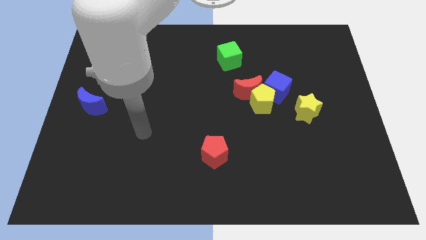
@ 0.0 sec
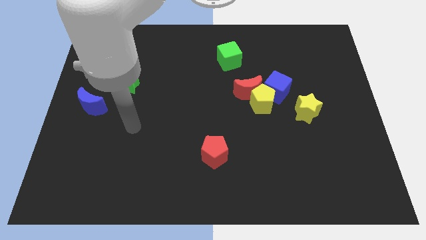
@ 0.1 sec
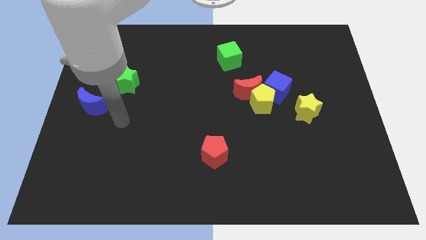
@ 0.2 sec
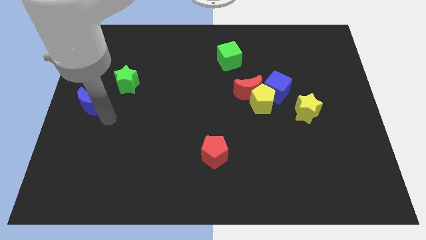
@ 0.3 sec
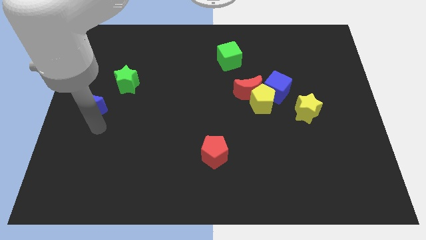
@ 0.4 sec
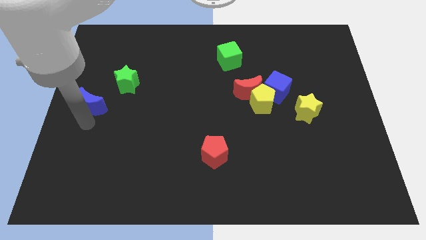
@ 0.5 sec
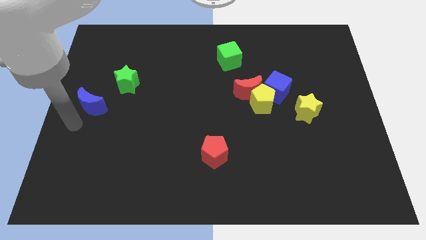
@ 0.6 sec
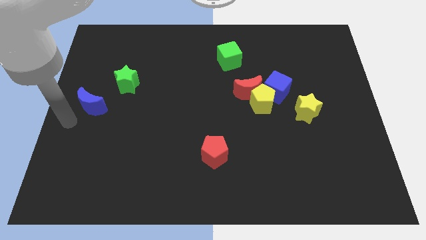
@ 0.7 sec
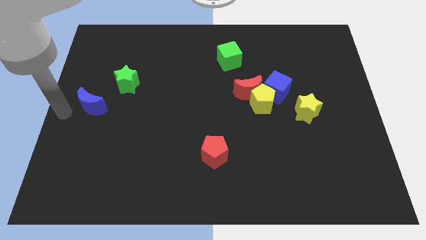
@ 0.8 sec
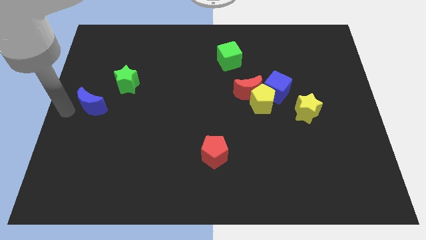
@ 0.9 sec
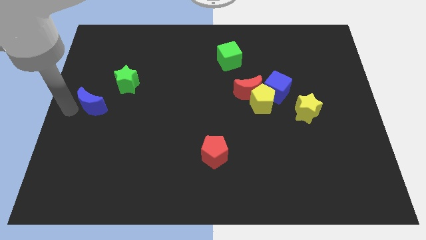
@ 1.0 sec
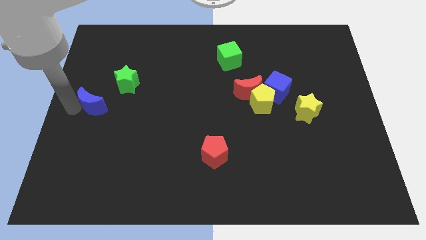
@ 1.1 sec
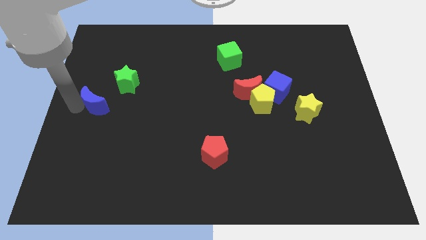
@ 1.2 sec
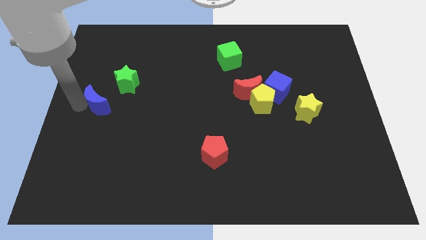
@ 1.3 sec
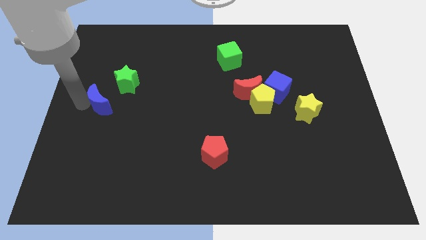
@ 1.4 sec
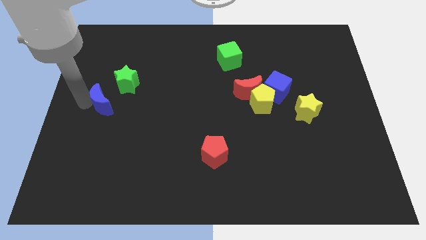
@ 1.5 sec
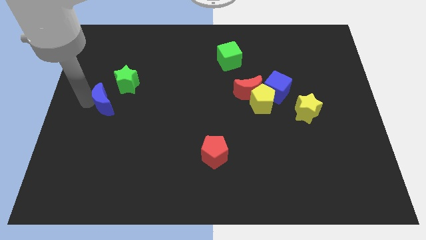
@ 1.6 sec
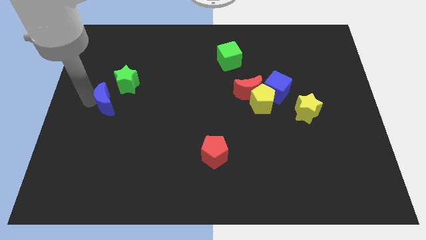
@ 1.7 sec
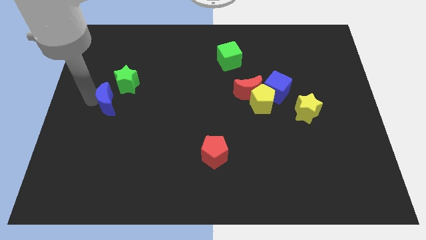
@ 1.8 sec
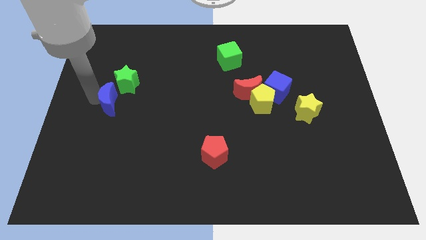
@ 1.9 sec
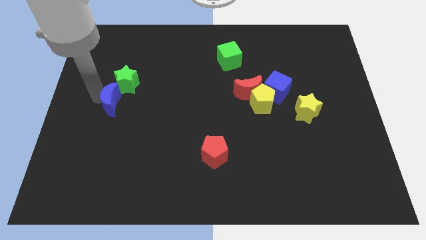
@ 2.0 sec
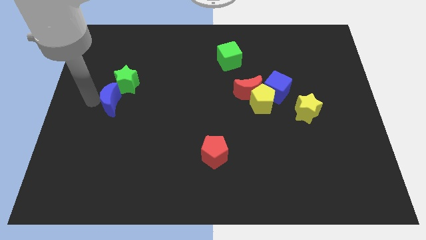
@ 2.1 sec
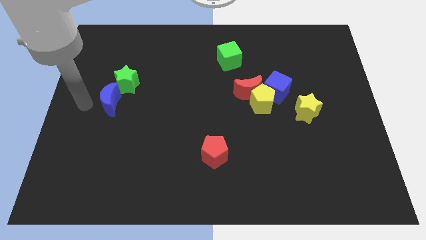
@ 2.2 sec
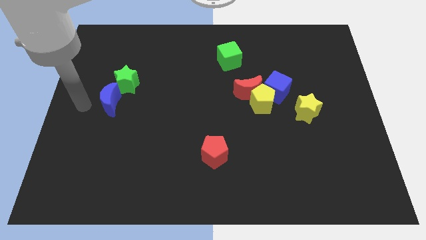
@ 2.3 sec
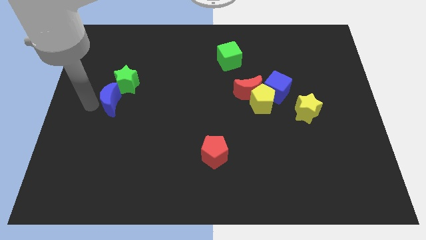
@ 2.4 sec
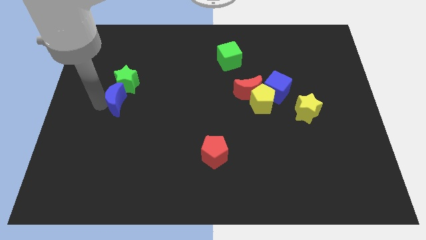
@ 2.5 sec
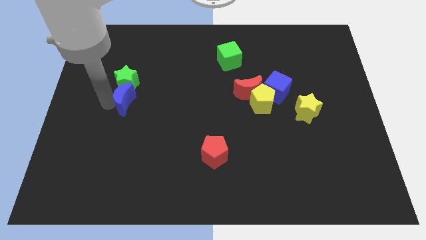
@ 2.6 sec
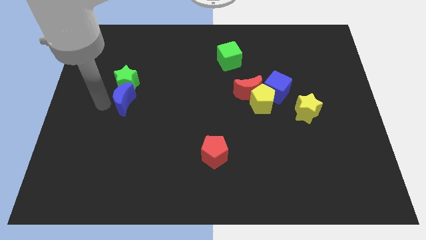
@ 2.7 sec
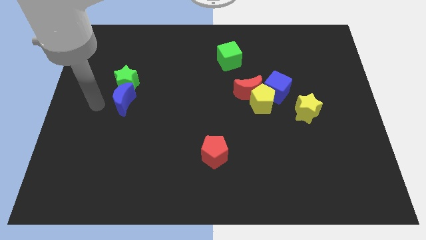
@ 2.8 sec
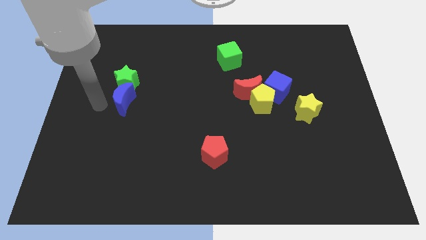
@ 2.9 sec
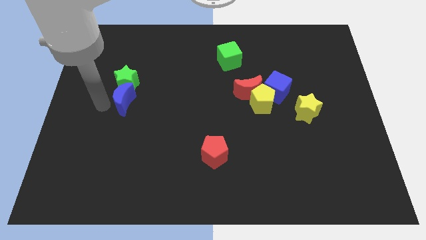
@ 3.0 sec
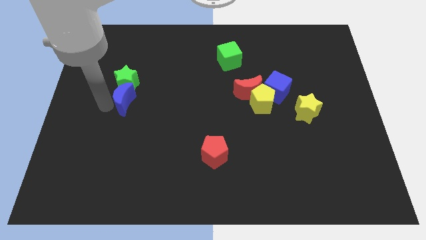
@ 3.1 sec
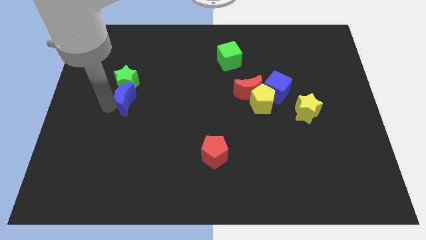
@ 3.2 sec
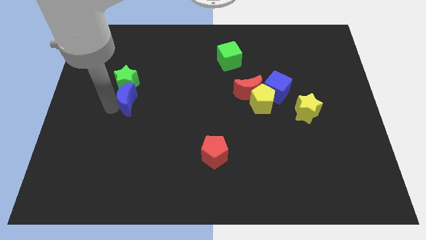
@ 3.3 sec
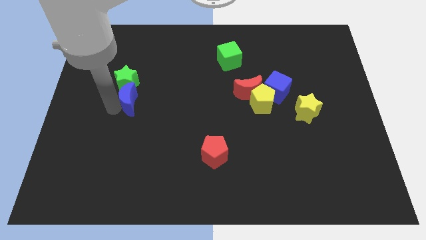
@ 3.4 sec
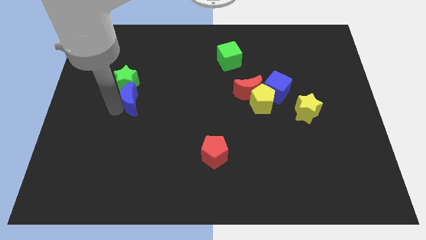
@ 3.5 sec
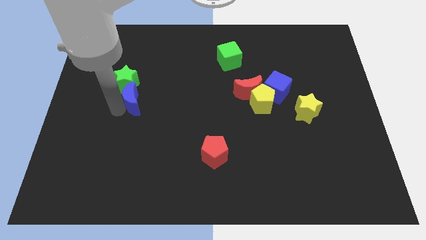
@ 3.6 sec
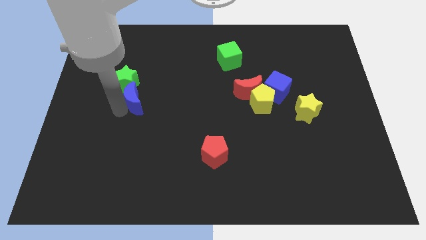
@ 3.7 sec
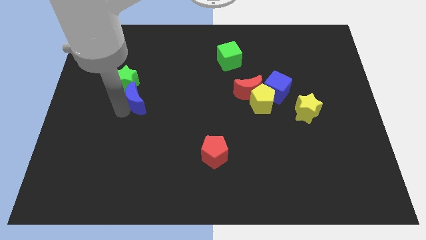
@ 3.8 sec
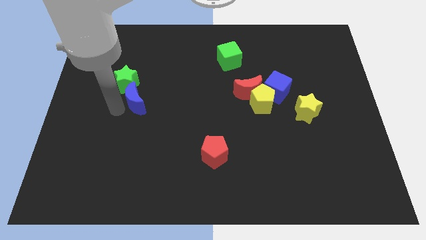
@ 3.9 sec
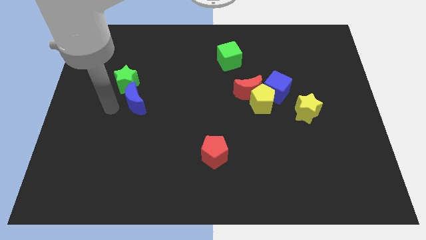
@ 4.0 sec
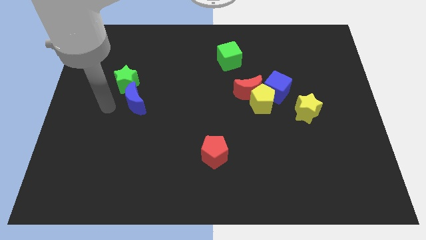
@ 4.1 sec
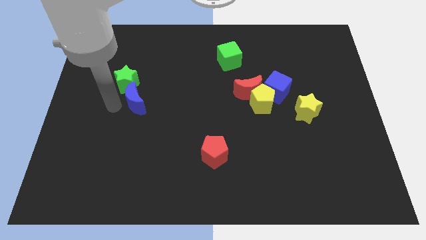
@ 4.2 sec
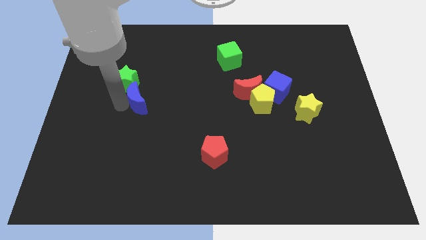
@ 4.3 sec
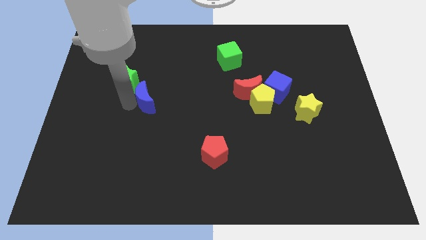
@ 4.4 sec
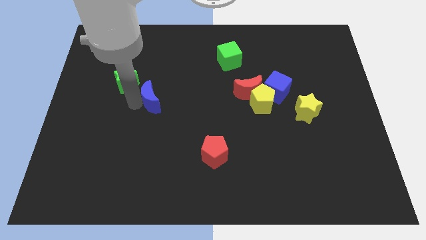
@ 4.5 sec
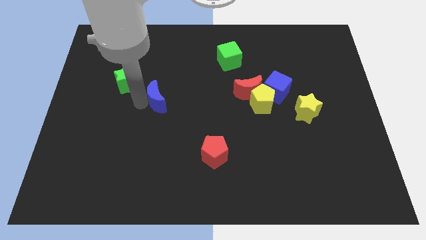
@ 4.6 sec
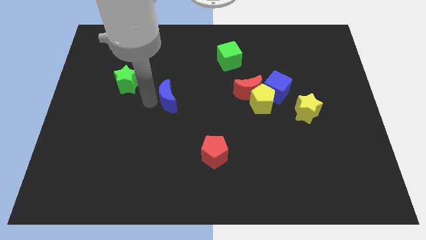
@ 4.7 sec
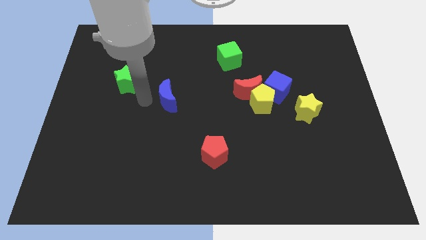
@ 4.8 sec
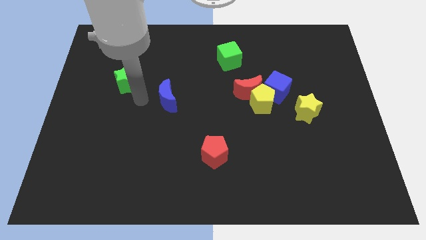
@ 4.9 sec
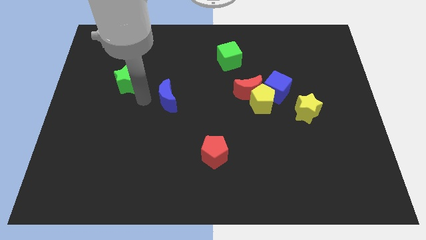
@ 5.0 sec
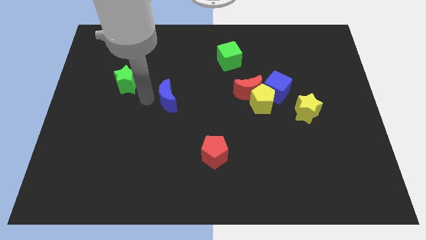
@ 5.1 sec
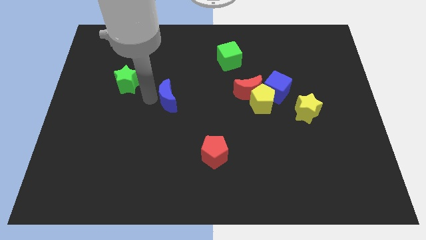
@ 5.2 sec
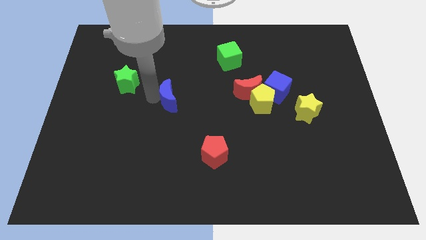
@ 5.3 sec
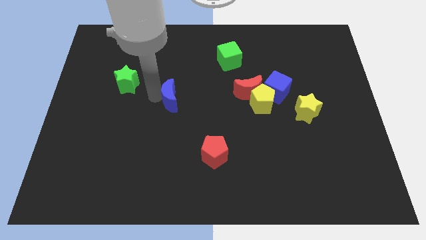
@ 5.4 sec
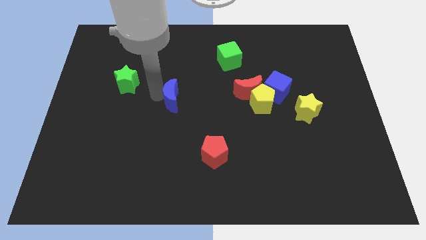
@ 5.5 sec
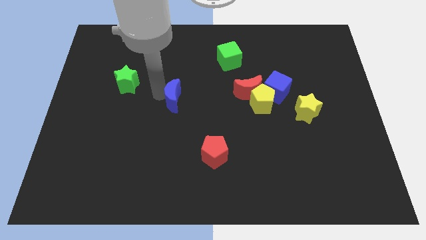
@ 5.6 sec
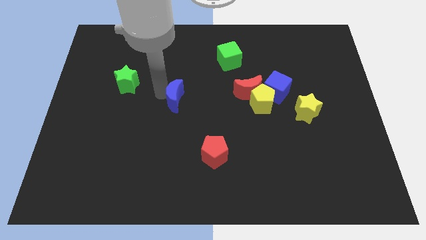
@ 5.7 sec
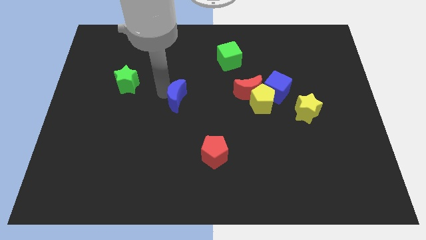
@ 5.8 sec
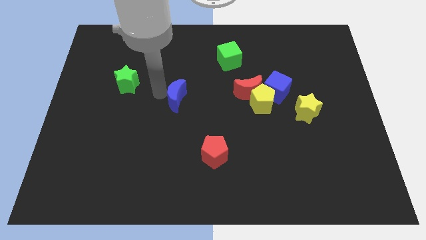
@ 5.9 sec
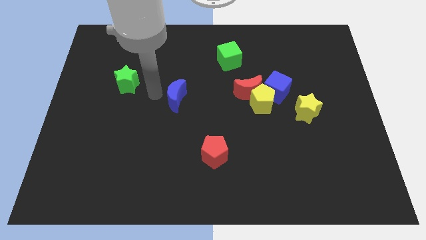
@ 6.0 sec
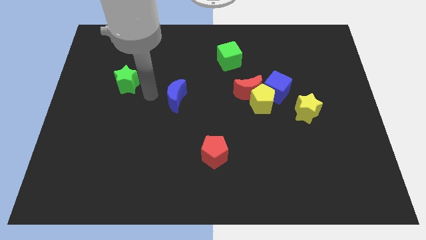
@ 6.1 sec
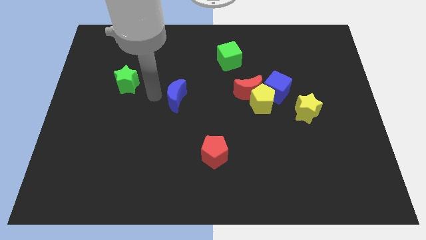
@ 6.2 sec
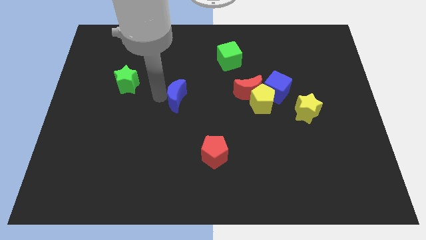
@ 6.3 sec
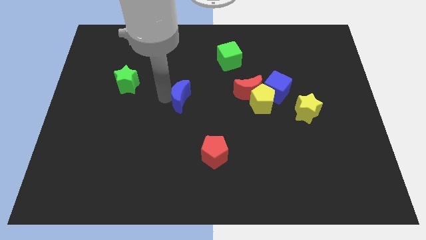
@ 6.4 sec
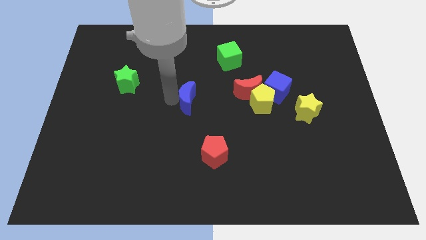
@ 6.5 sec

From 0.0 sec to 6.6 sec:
push the blue moon just left of the red moon
